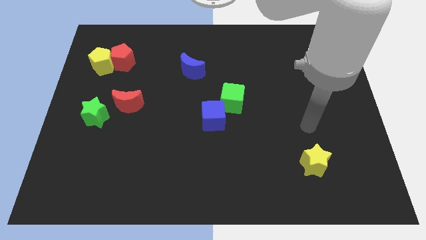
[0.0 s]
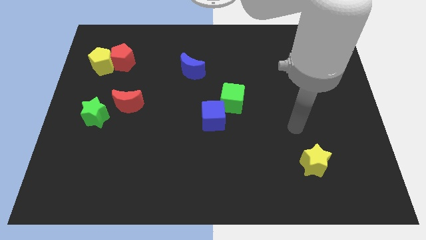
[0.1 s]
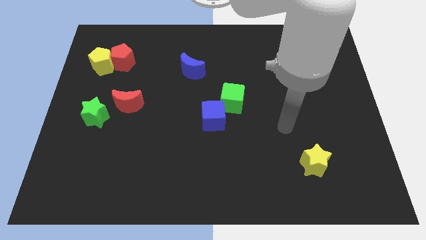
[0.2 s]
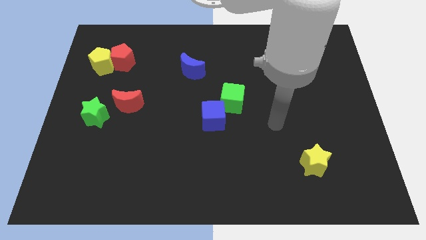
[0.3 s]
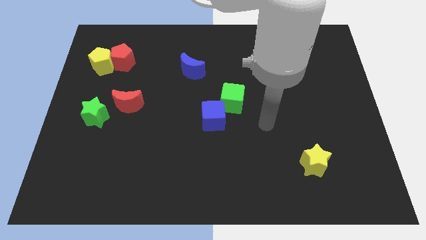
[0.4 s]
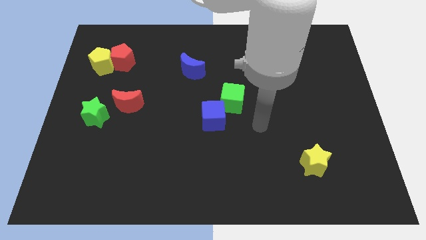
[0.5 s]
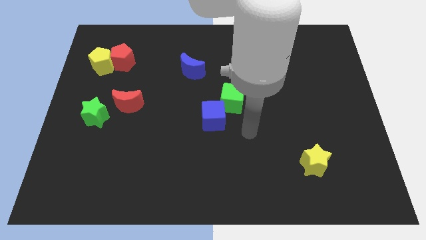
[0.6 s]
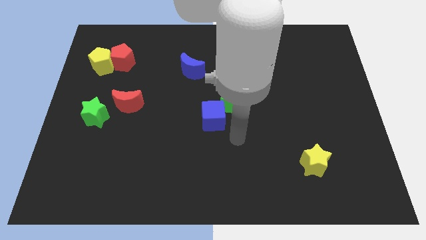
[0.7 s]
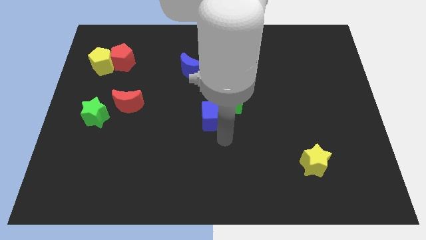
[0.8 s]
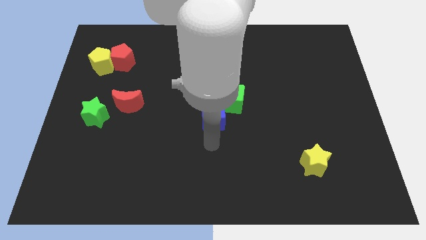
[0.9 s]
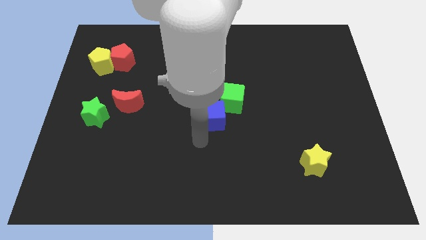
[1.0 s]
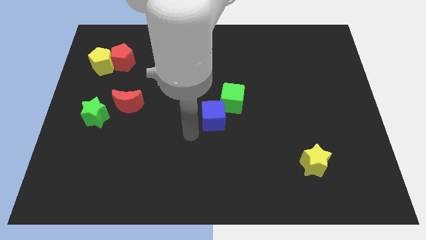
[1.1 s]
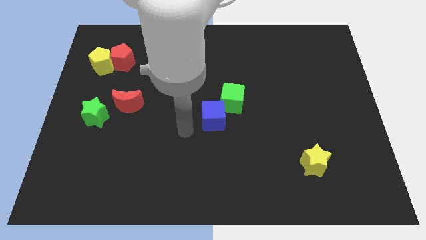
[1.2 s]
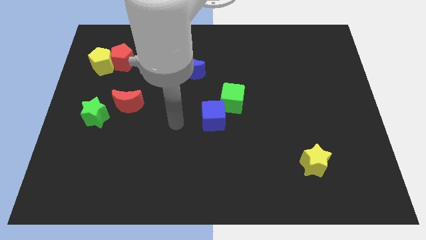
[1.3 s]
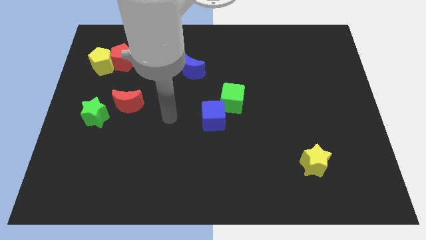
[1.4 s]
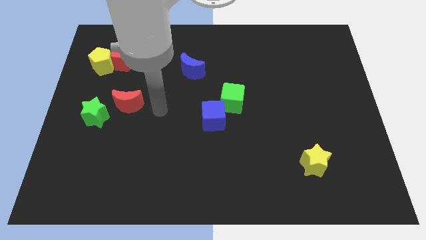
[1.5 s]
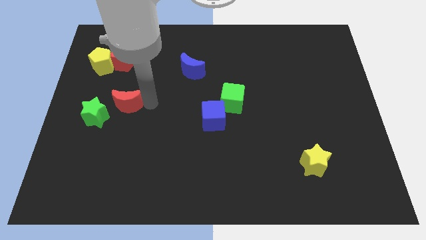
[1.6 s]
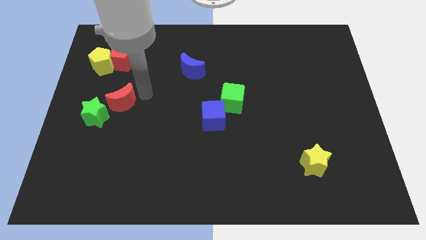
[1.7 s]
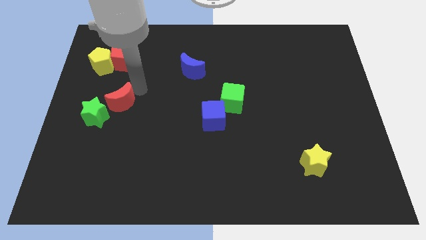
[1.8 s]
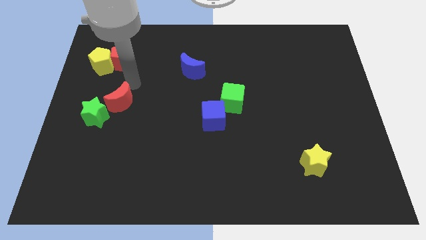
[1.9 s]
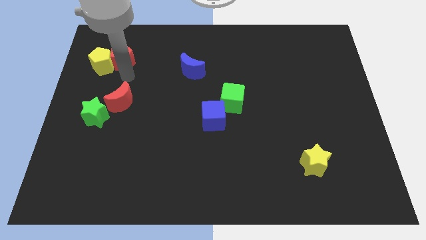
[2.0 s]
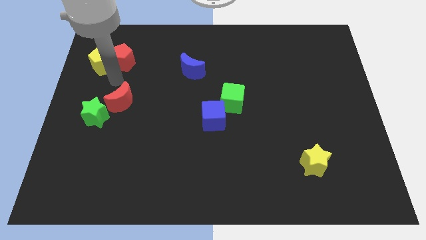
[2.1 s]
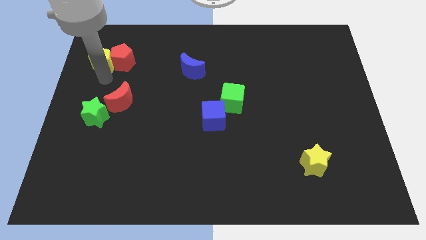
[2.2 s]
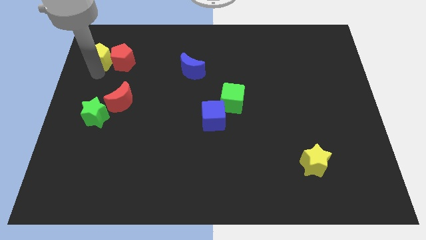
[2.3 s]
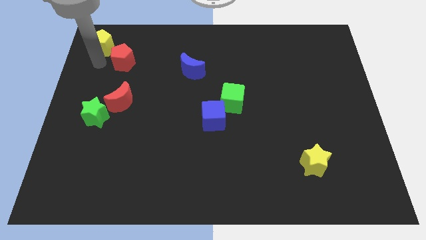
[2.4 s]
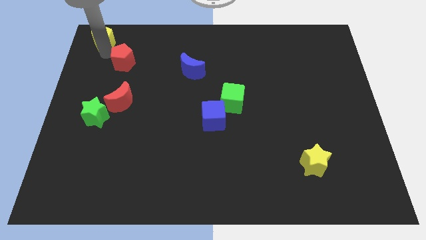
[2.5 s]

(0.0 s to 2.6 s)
move the red pentagon away from the yellow pentagon

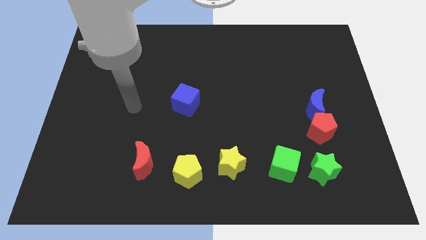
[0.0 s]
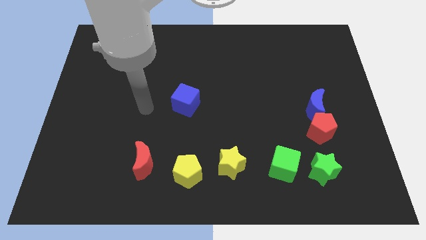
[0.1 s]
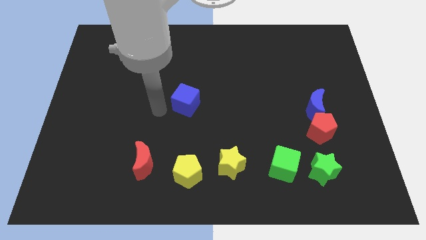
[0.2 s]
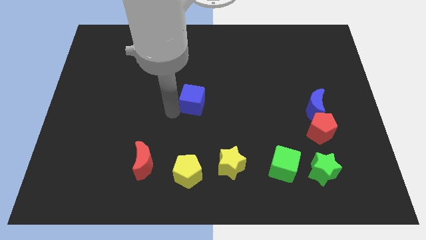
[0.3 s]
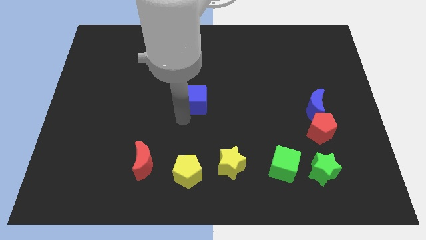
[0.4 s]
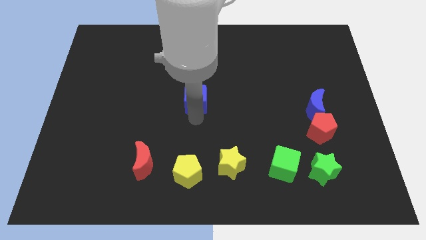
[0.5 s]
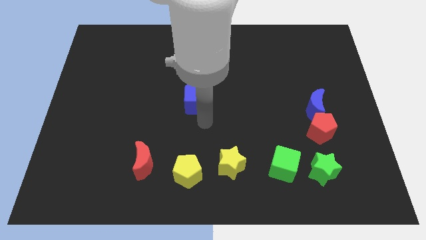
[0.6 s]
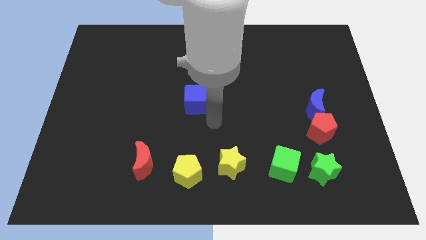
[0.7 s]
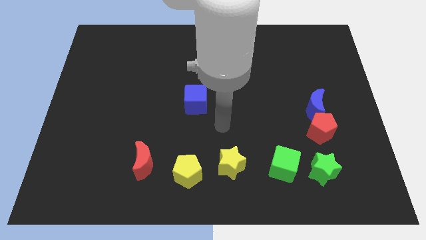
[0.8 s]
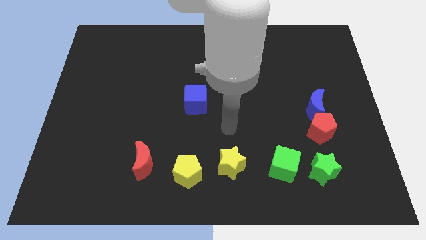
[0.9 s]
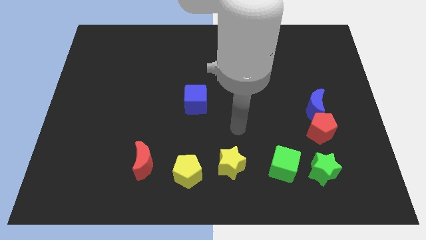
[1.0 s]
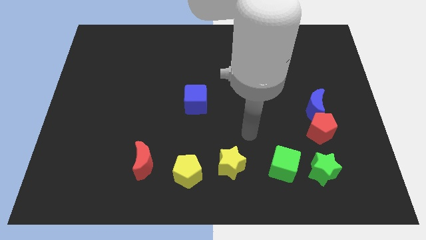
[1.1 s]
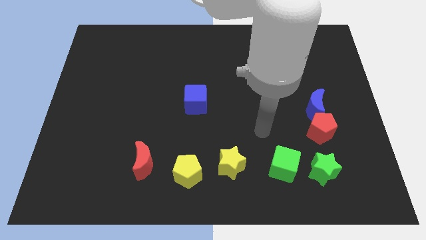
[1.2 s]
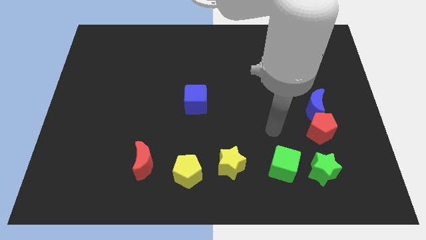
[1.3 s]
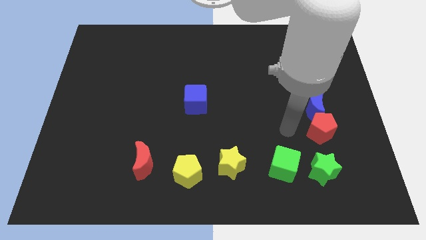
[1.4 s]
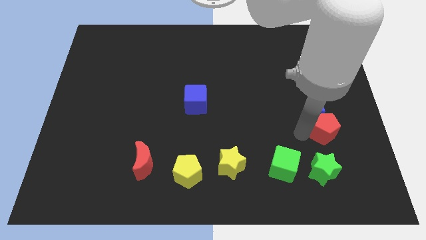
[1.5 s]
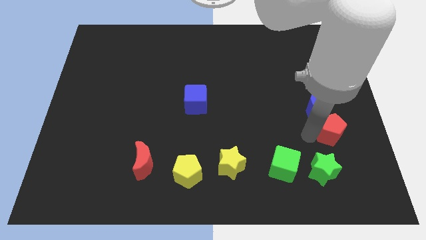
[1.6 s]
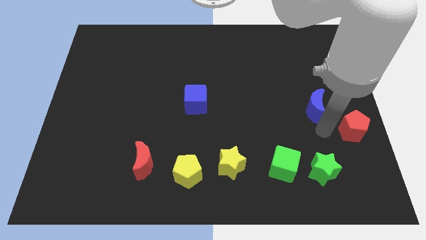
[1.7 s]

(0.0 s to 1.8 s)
pull the blue moon apart from the red pentagon

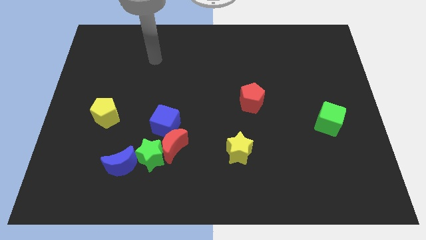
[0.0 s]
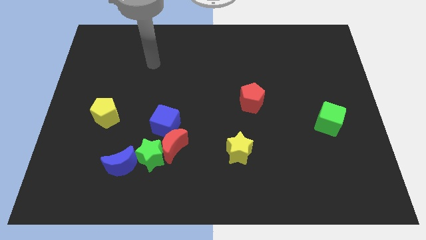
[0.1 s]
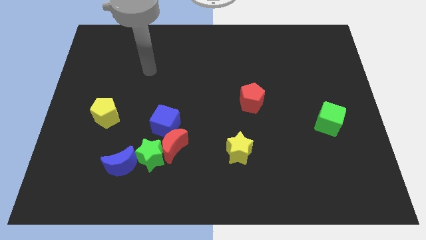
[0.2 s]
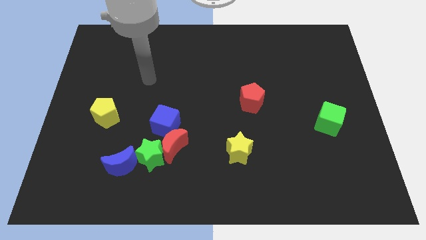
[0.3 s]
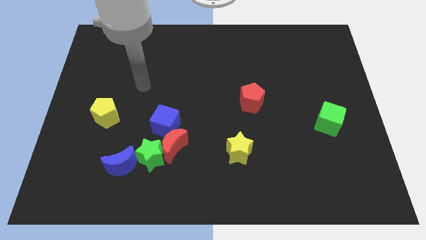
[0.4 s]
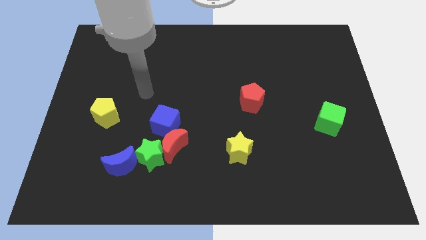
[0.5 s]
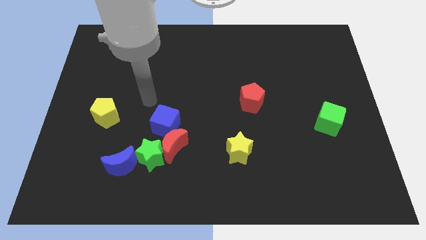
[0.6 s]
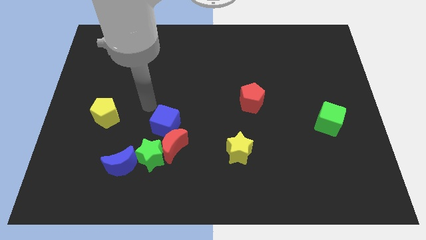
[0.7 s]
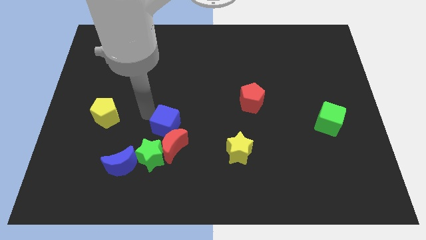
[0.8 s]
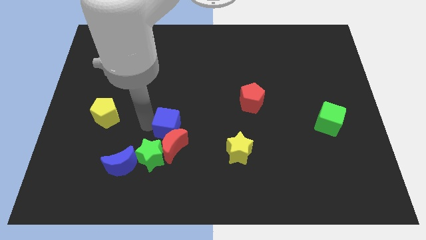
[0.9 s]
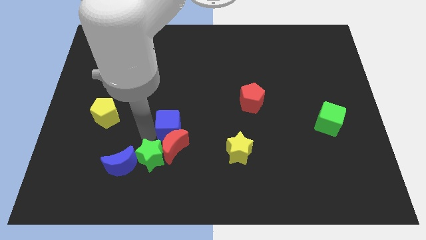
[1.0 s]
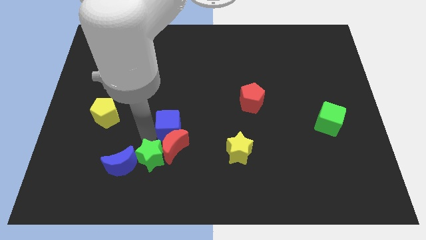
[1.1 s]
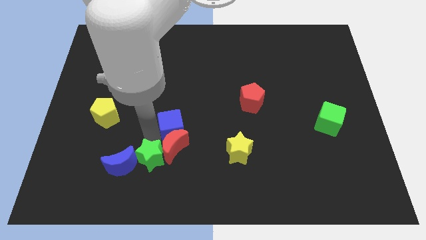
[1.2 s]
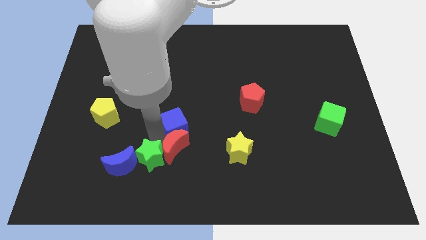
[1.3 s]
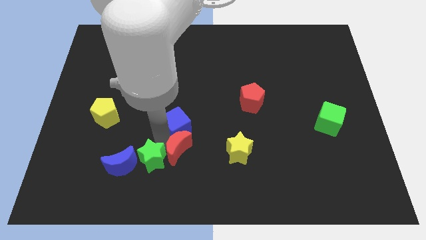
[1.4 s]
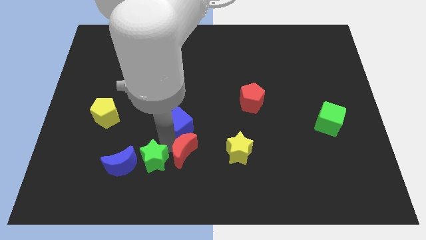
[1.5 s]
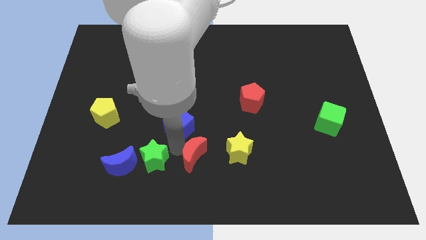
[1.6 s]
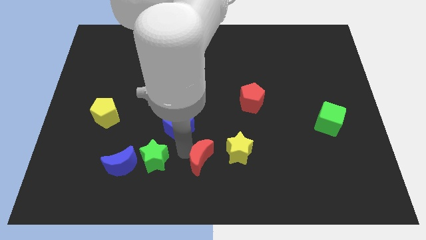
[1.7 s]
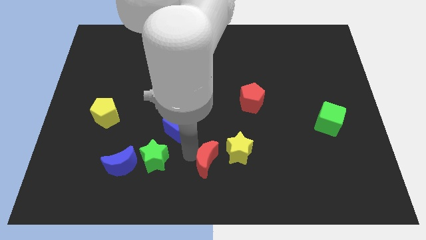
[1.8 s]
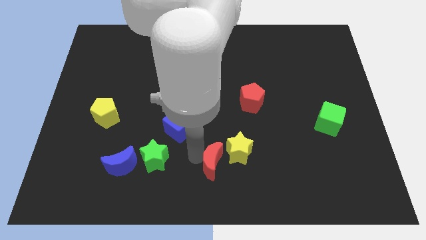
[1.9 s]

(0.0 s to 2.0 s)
separate the red moon from the green star and blue cube

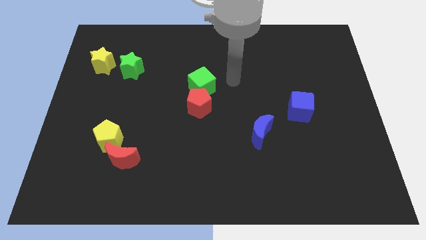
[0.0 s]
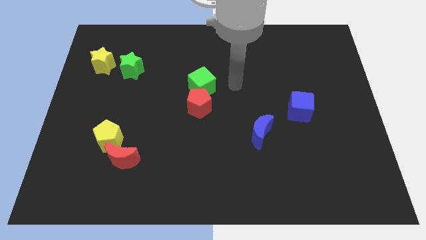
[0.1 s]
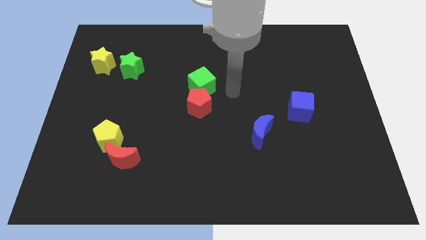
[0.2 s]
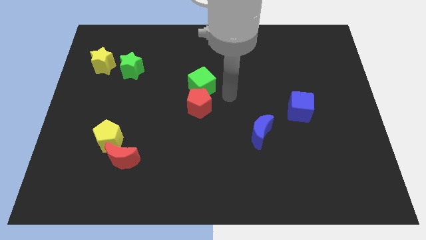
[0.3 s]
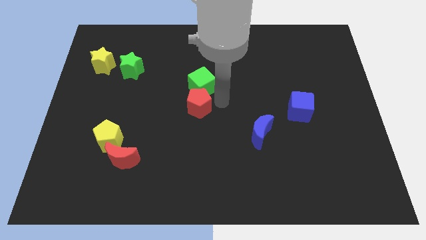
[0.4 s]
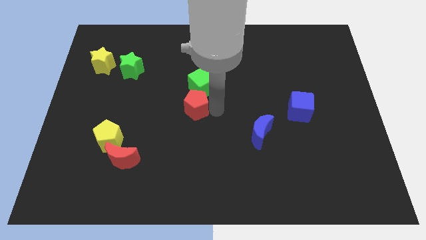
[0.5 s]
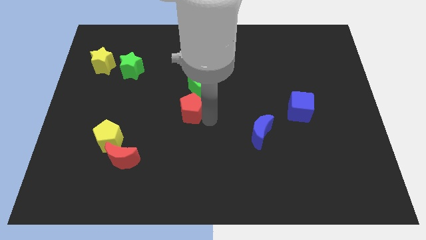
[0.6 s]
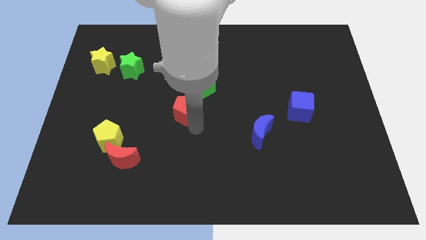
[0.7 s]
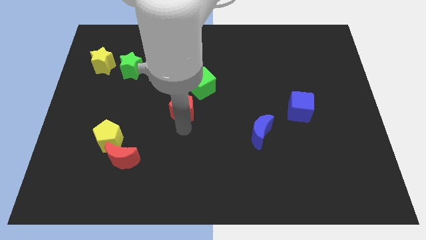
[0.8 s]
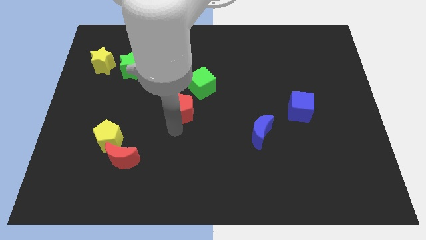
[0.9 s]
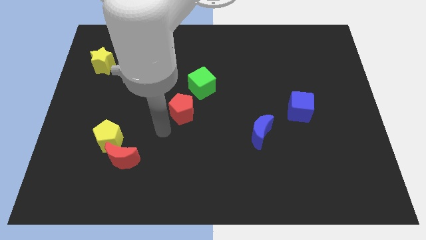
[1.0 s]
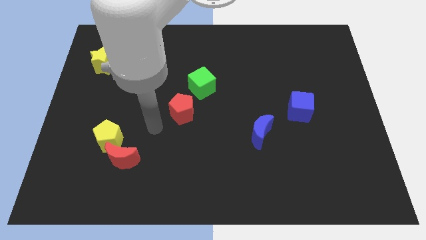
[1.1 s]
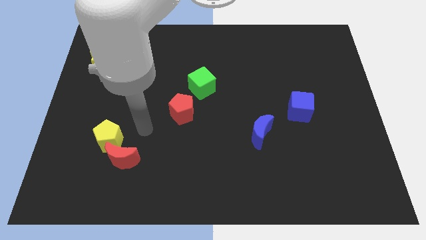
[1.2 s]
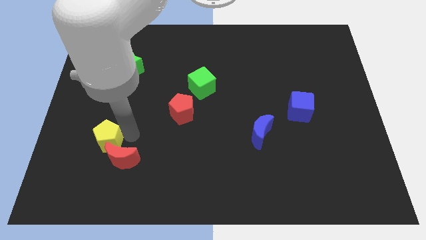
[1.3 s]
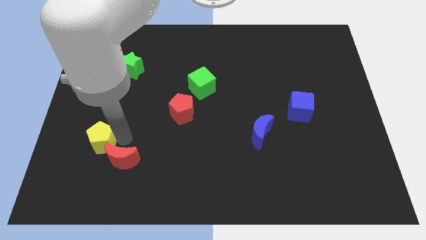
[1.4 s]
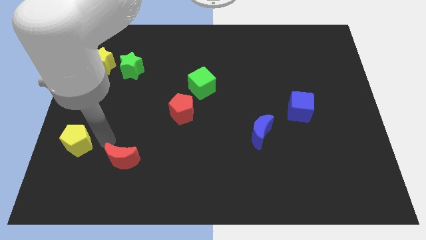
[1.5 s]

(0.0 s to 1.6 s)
move the red moon away from the yellow pentagon

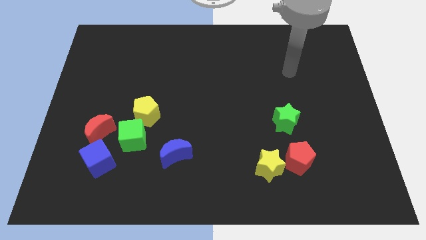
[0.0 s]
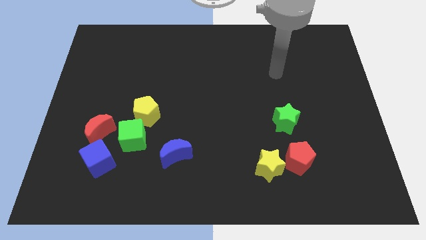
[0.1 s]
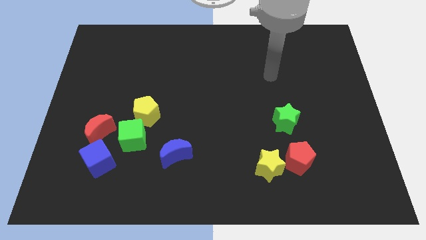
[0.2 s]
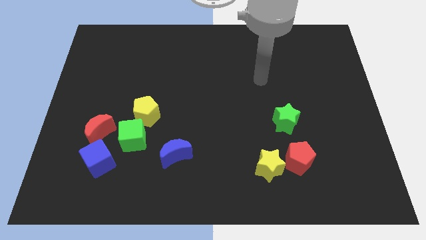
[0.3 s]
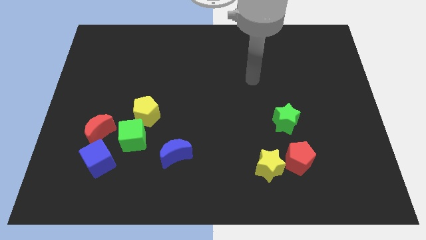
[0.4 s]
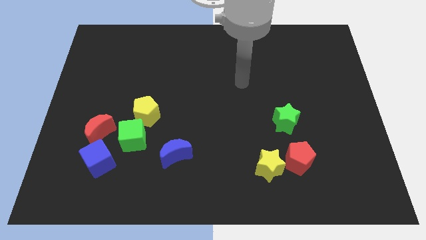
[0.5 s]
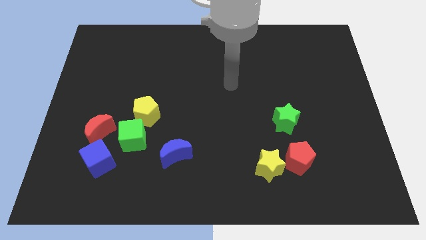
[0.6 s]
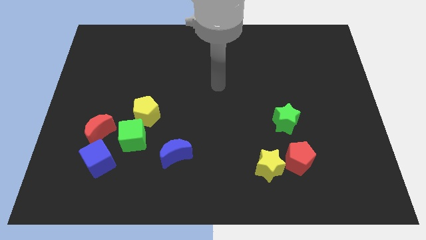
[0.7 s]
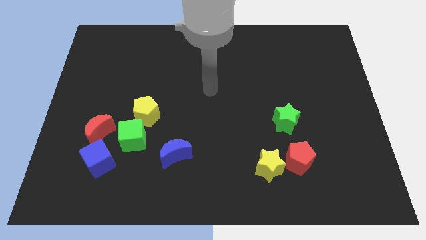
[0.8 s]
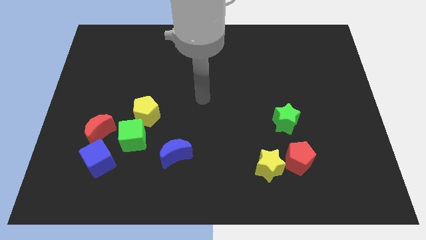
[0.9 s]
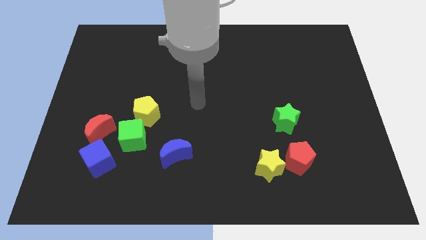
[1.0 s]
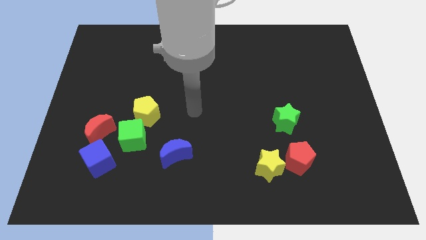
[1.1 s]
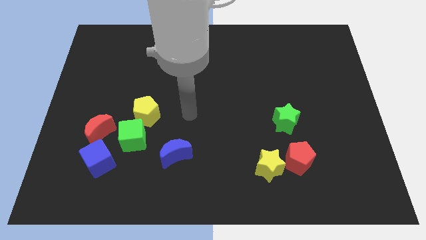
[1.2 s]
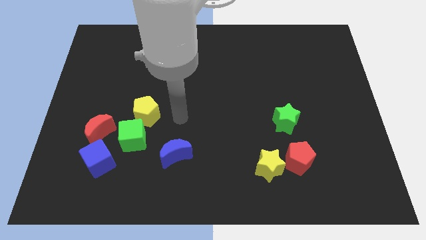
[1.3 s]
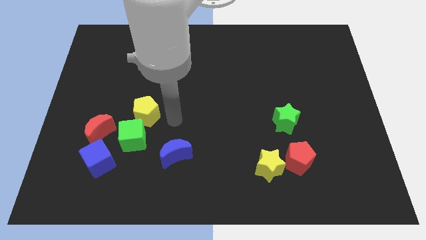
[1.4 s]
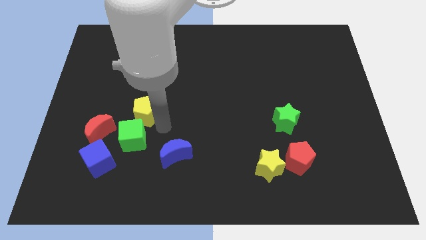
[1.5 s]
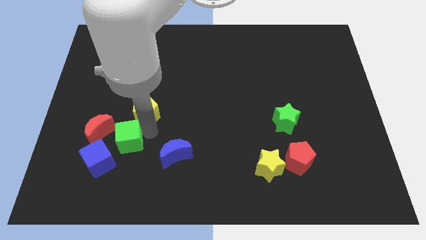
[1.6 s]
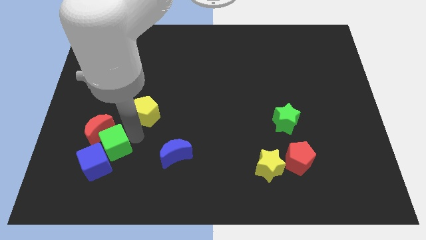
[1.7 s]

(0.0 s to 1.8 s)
move the yellow pentagon away from the green cube
